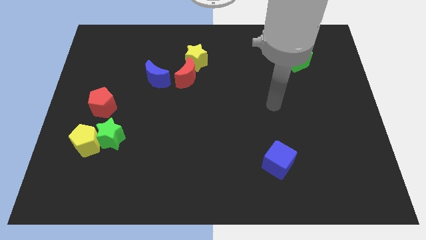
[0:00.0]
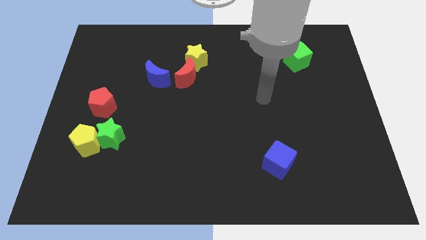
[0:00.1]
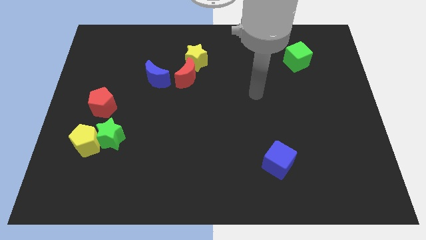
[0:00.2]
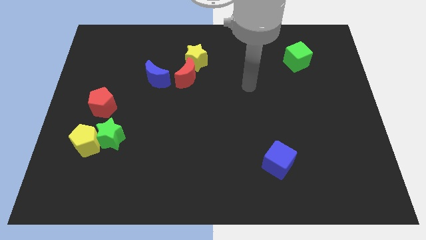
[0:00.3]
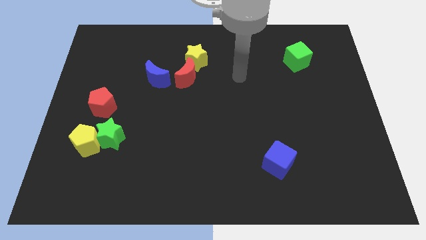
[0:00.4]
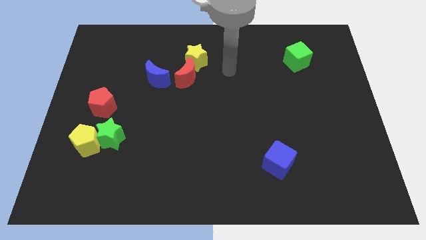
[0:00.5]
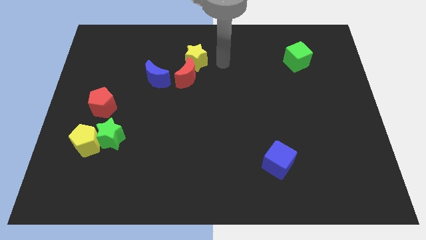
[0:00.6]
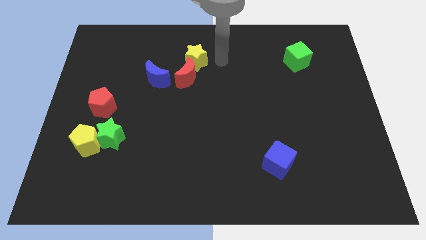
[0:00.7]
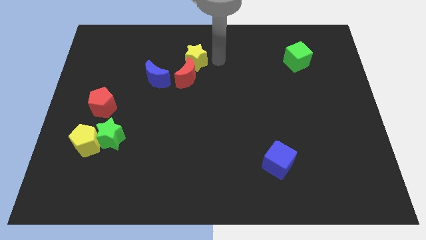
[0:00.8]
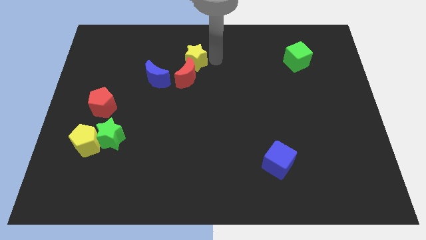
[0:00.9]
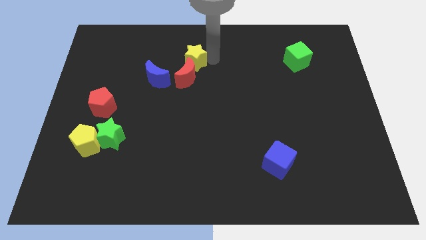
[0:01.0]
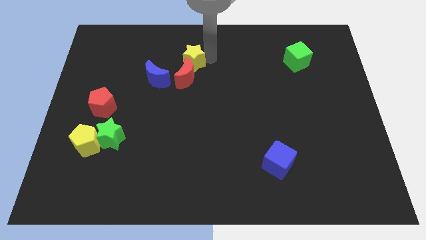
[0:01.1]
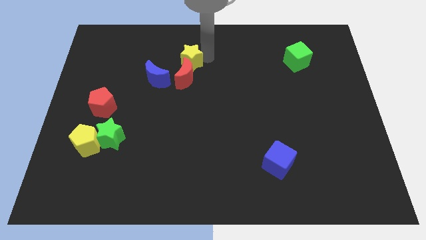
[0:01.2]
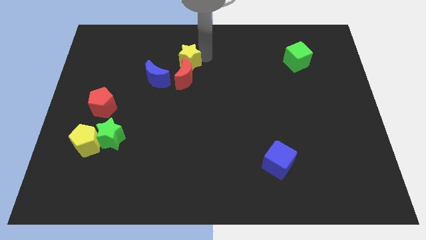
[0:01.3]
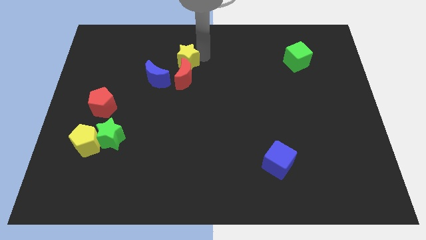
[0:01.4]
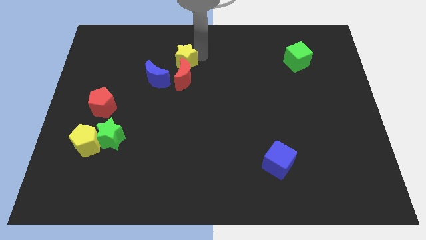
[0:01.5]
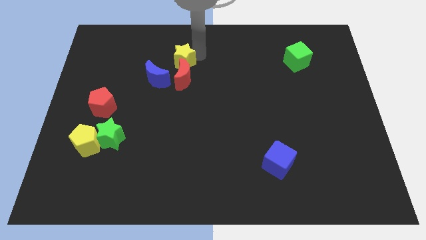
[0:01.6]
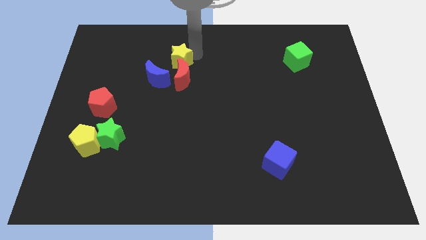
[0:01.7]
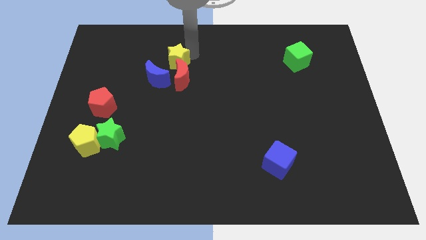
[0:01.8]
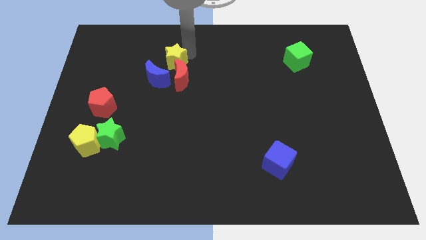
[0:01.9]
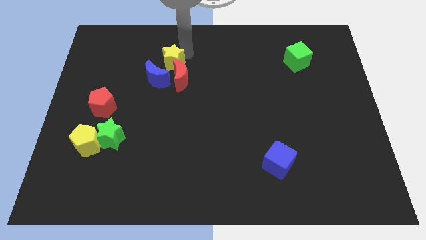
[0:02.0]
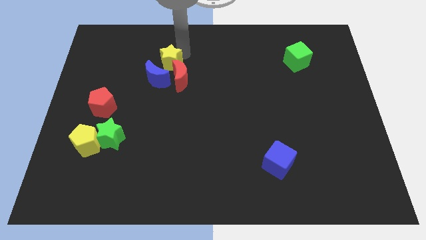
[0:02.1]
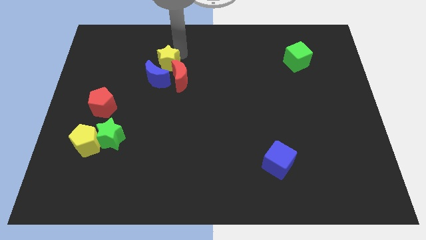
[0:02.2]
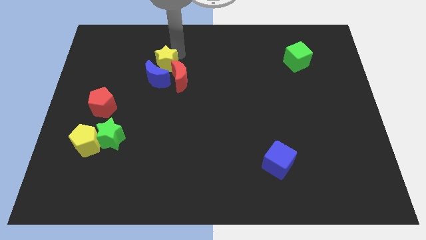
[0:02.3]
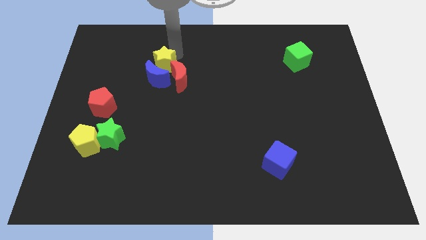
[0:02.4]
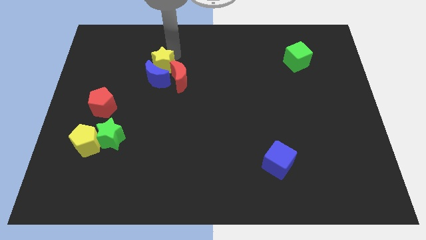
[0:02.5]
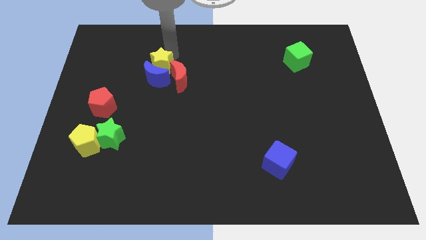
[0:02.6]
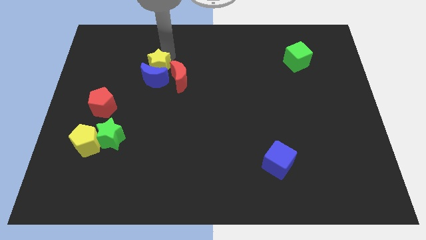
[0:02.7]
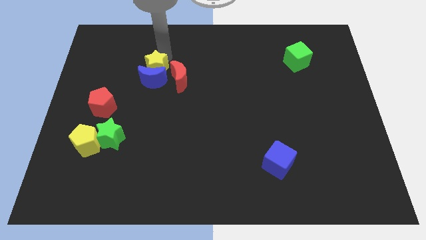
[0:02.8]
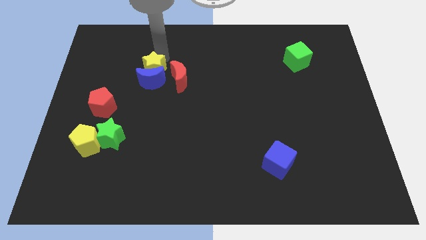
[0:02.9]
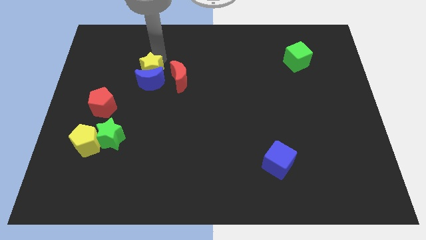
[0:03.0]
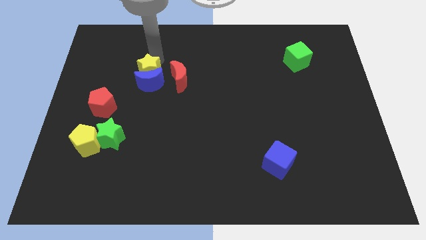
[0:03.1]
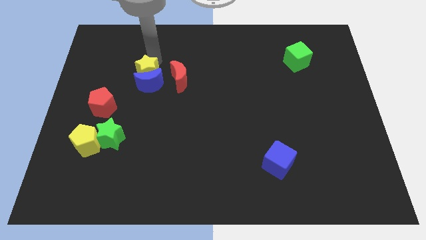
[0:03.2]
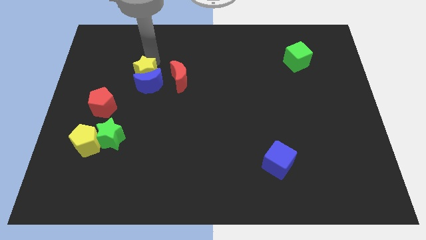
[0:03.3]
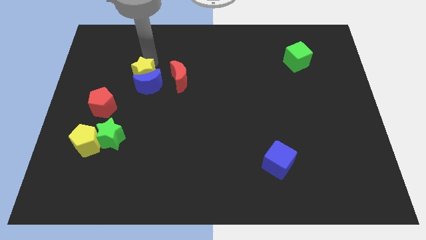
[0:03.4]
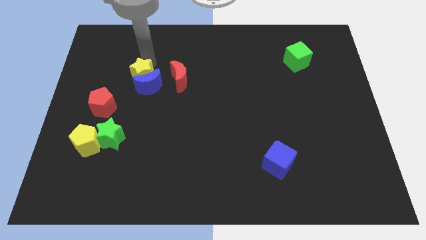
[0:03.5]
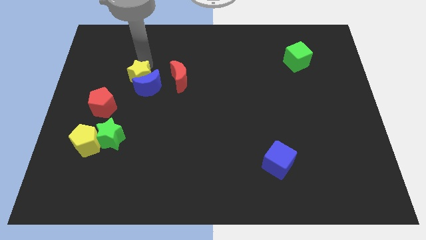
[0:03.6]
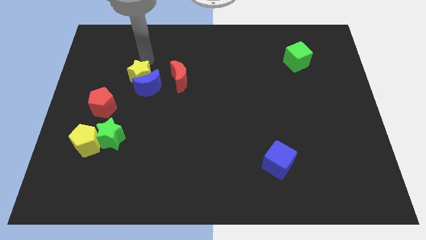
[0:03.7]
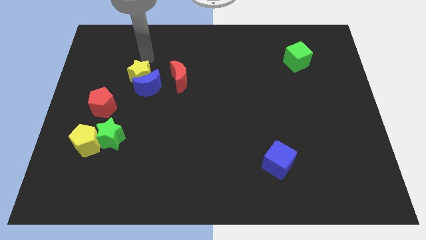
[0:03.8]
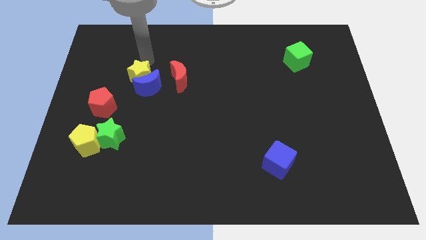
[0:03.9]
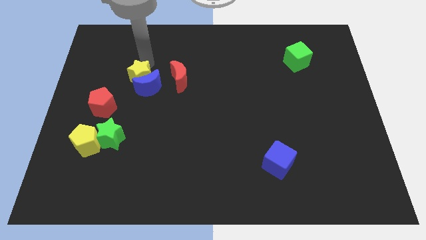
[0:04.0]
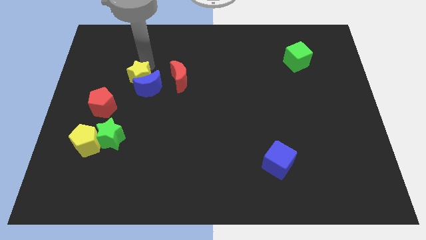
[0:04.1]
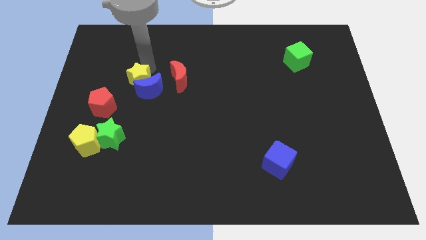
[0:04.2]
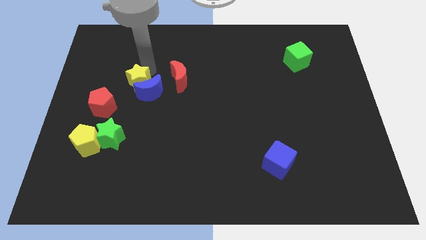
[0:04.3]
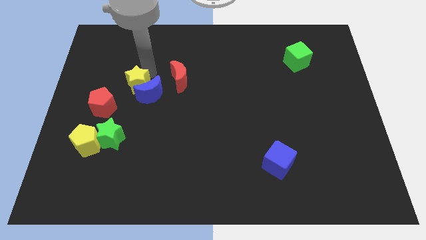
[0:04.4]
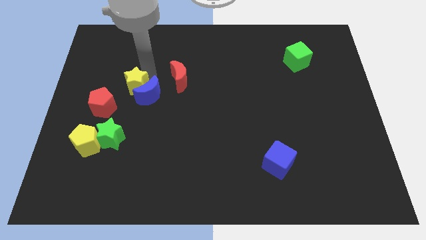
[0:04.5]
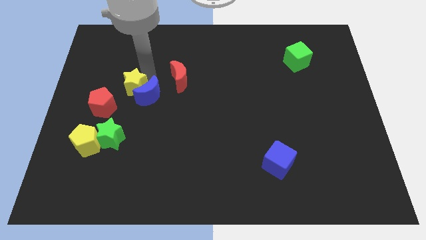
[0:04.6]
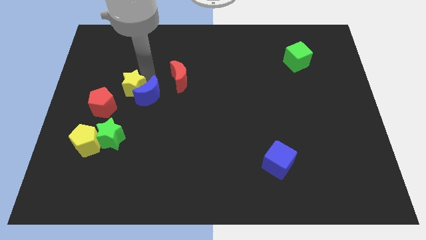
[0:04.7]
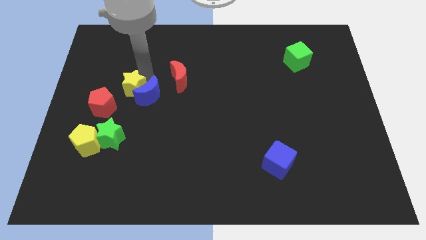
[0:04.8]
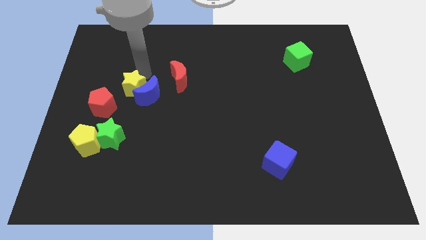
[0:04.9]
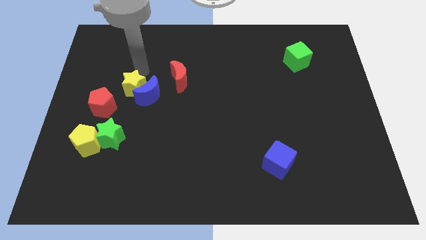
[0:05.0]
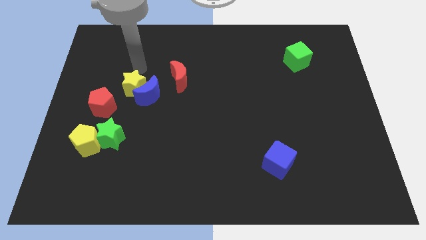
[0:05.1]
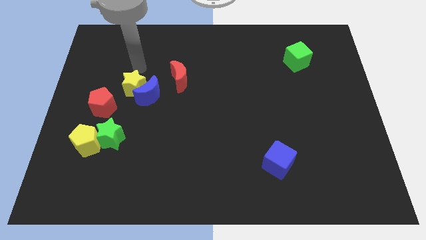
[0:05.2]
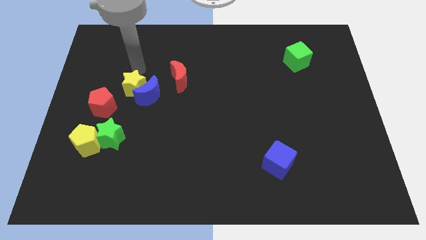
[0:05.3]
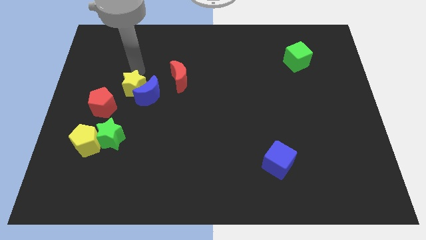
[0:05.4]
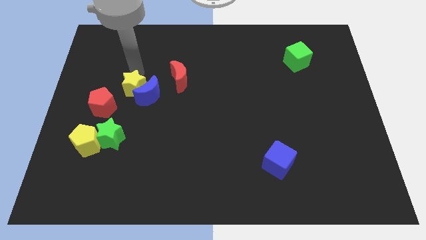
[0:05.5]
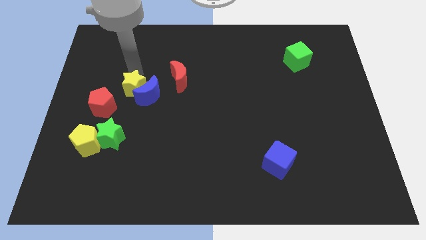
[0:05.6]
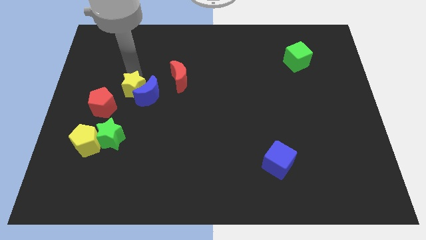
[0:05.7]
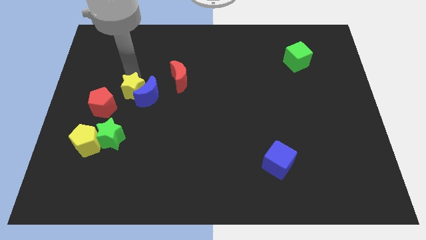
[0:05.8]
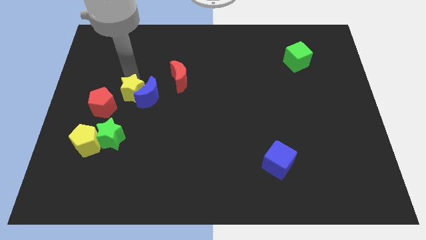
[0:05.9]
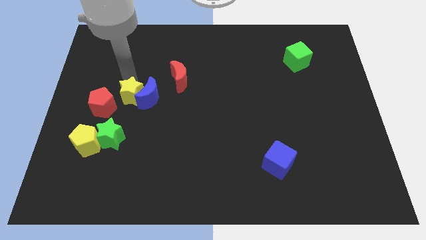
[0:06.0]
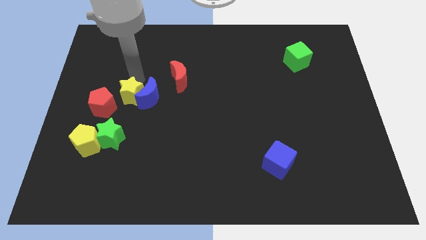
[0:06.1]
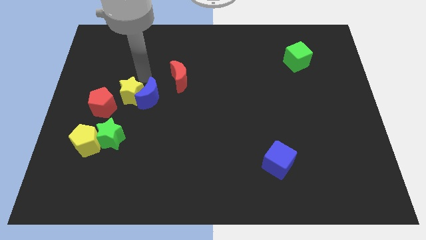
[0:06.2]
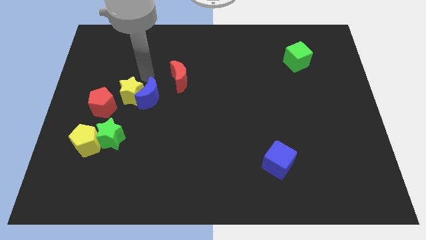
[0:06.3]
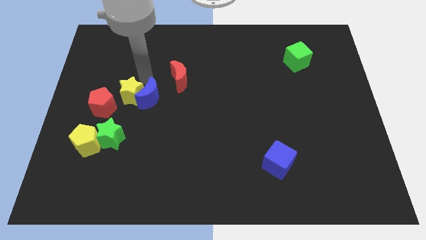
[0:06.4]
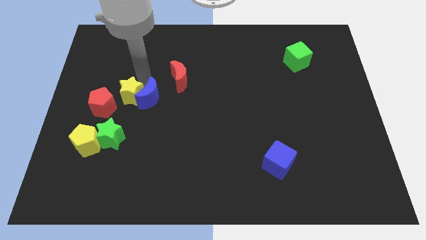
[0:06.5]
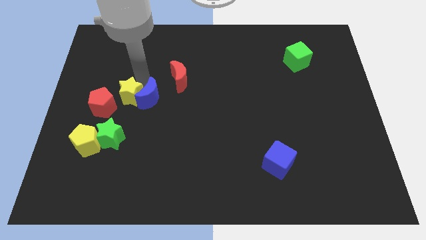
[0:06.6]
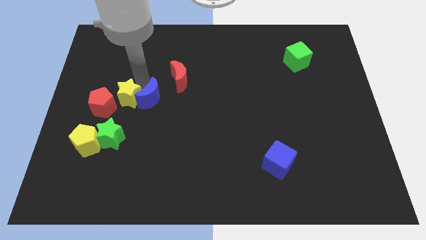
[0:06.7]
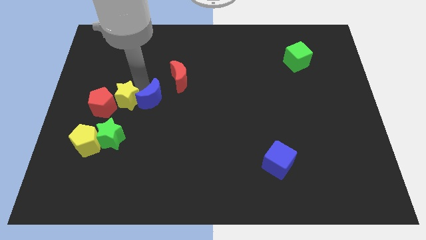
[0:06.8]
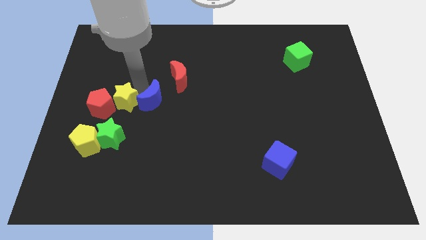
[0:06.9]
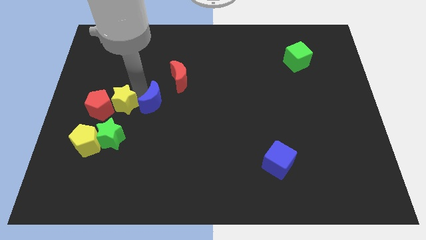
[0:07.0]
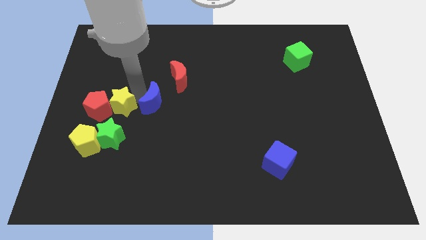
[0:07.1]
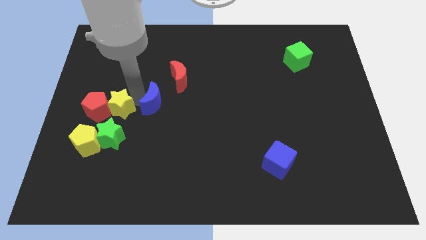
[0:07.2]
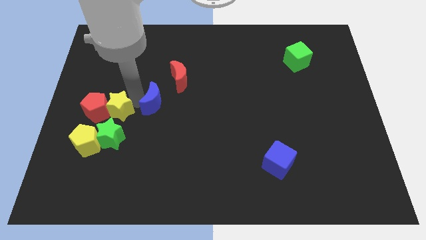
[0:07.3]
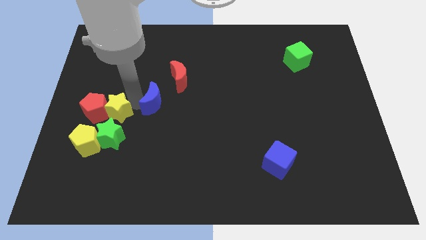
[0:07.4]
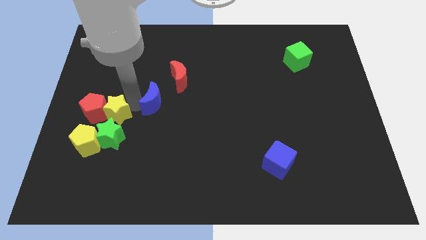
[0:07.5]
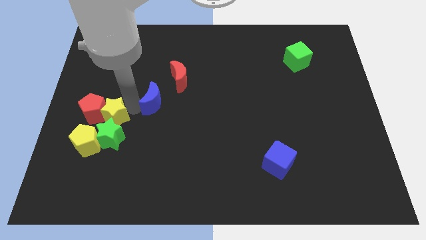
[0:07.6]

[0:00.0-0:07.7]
slide the yellow star to the top left of the green star
